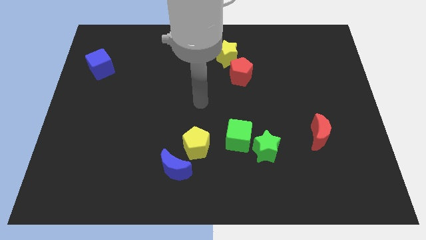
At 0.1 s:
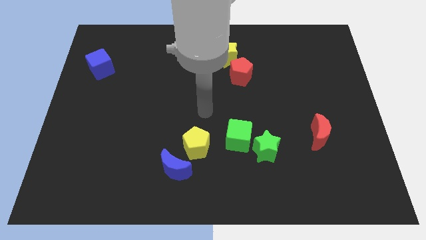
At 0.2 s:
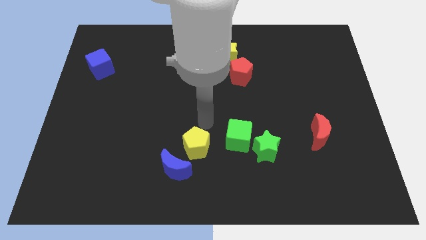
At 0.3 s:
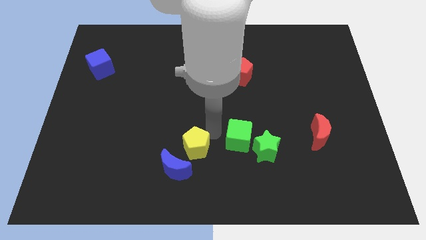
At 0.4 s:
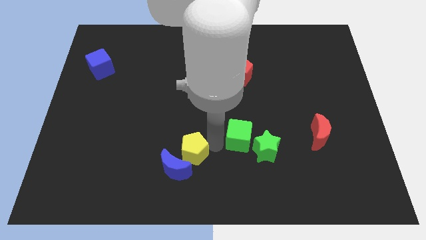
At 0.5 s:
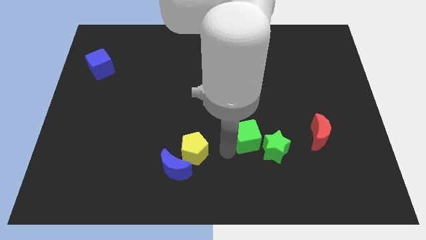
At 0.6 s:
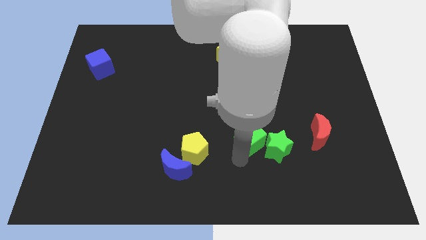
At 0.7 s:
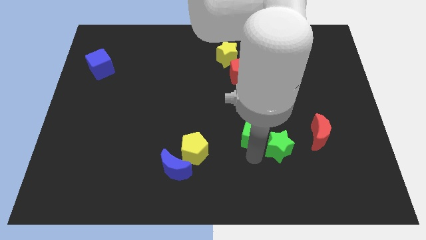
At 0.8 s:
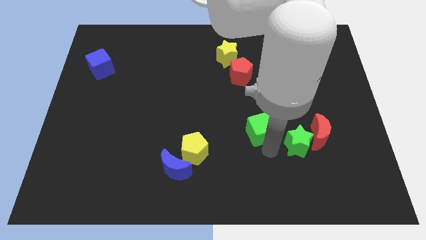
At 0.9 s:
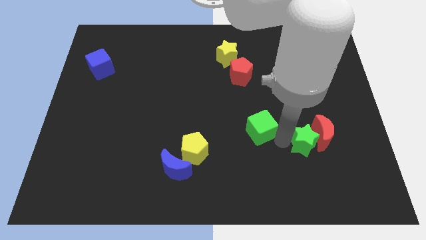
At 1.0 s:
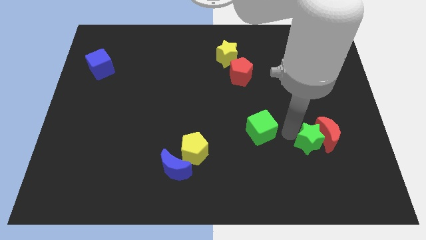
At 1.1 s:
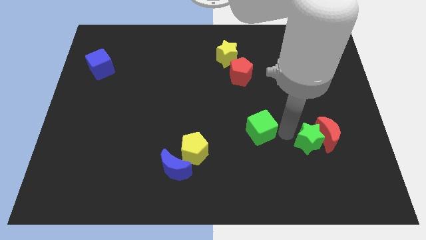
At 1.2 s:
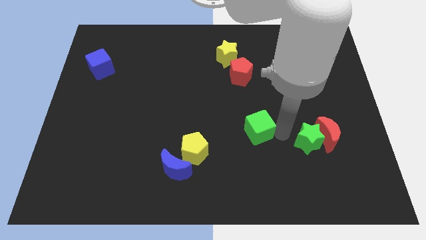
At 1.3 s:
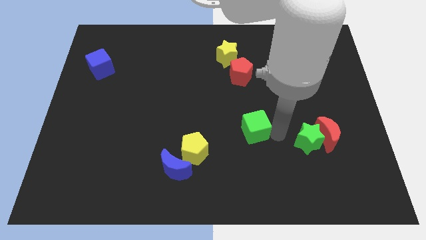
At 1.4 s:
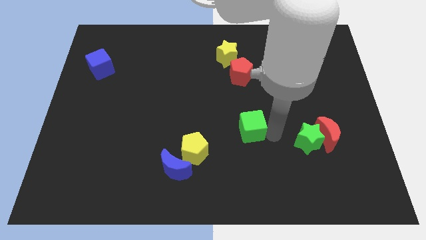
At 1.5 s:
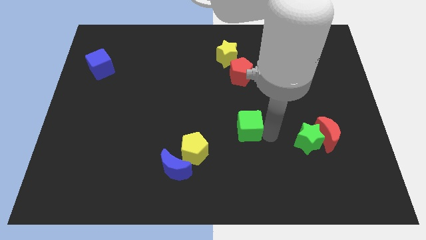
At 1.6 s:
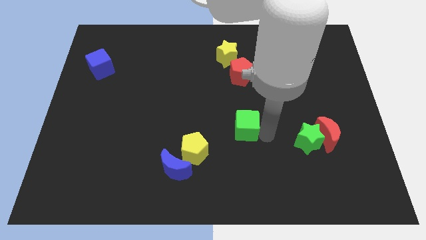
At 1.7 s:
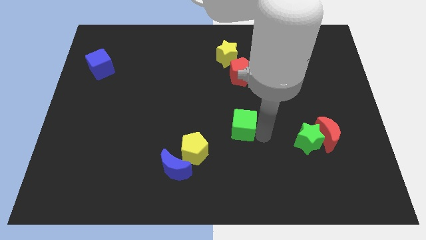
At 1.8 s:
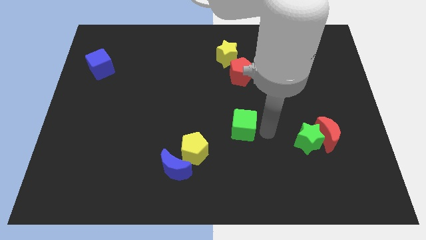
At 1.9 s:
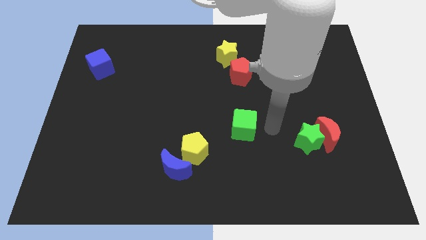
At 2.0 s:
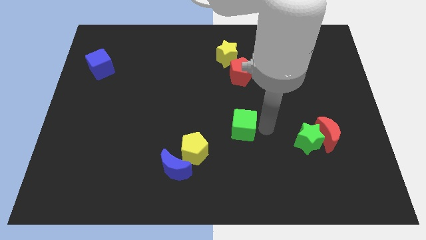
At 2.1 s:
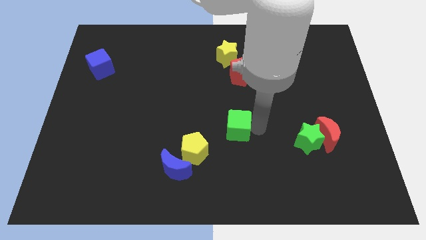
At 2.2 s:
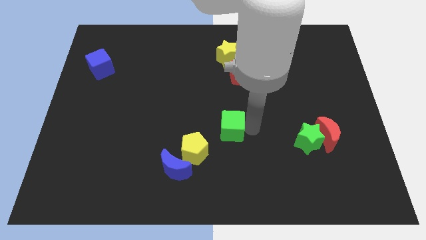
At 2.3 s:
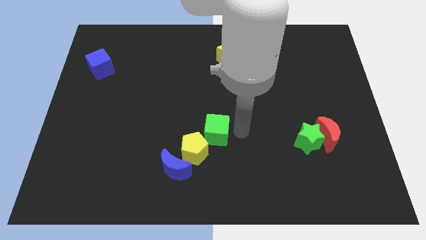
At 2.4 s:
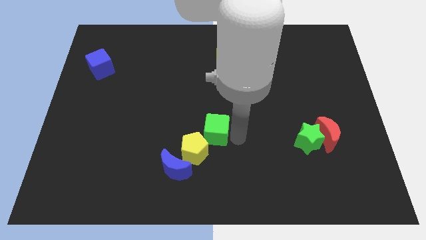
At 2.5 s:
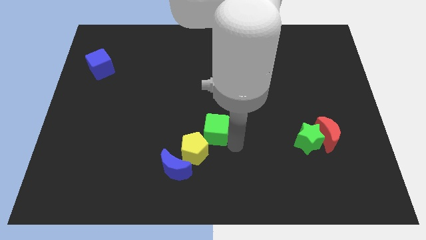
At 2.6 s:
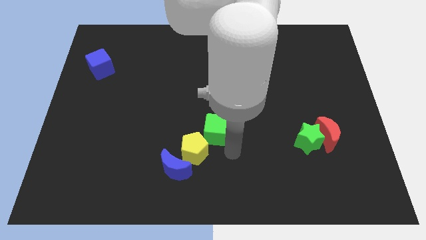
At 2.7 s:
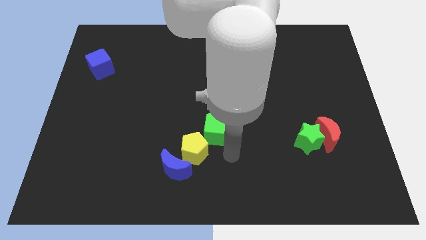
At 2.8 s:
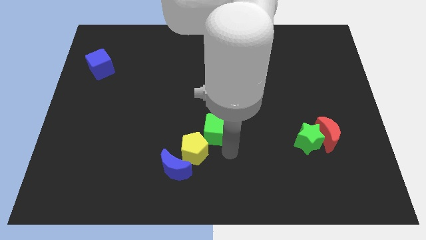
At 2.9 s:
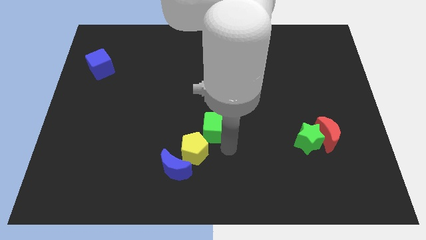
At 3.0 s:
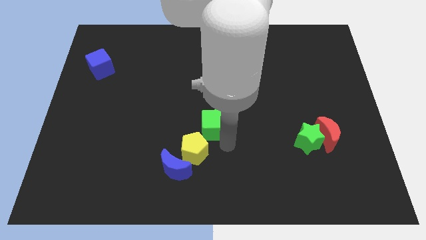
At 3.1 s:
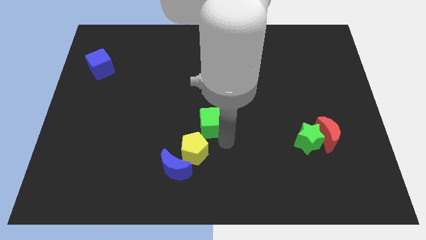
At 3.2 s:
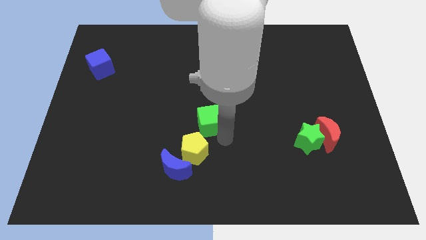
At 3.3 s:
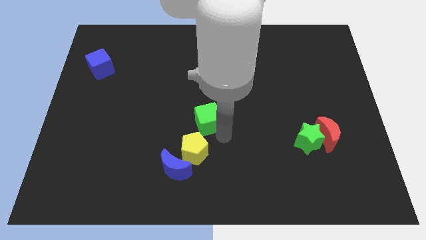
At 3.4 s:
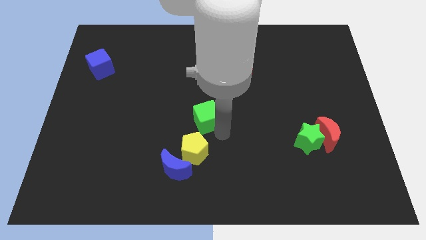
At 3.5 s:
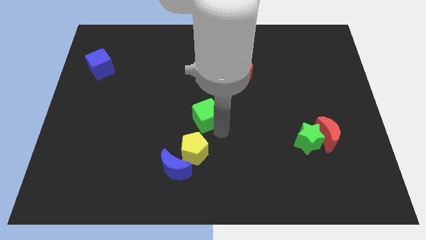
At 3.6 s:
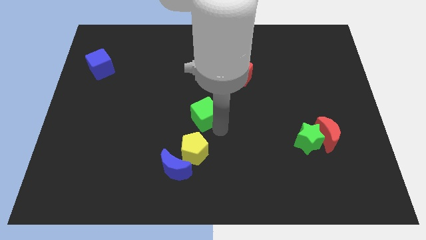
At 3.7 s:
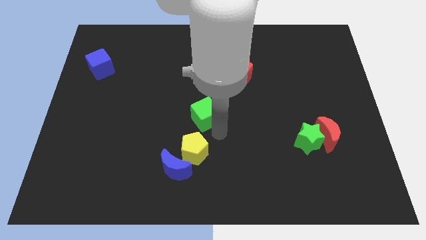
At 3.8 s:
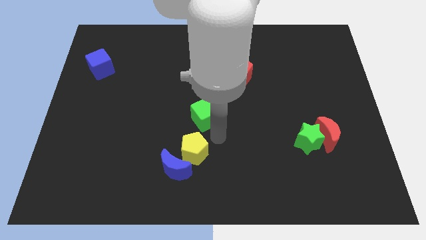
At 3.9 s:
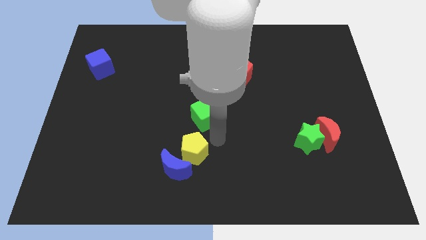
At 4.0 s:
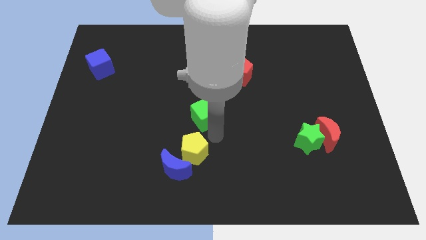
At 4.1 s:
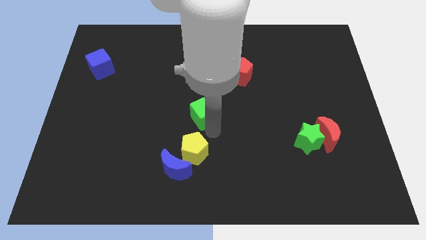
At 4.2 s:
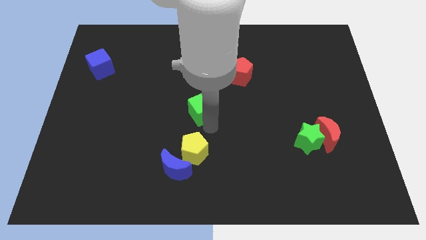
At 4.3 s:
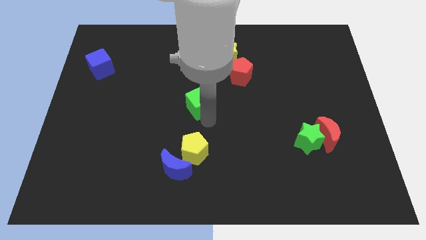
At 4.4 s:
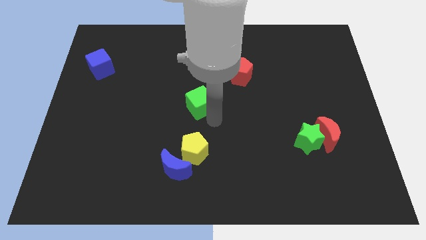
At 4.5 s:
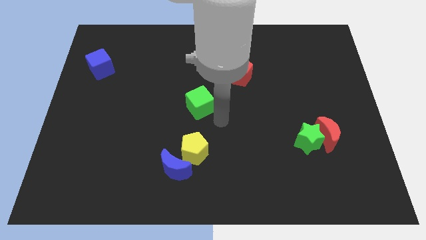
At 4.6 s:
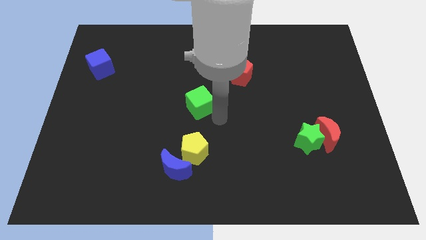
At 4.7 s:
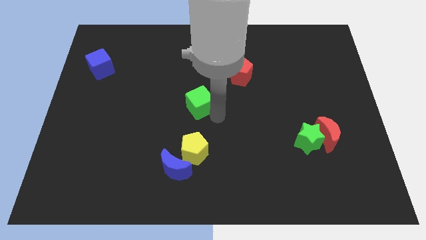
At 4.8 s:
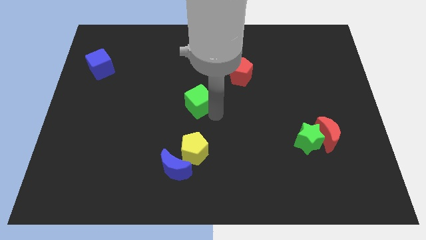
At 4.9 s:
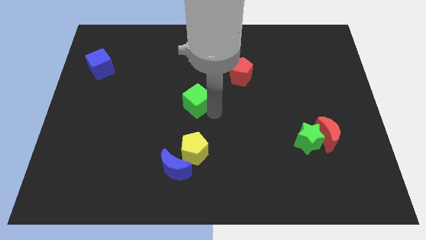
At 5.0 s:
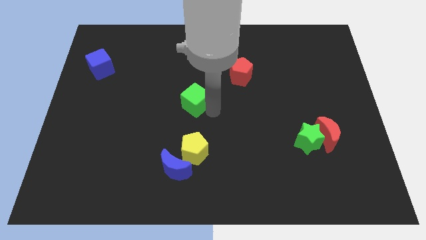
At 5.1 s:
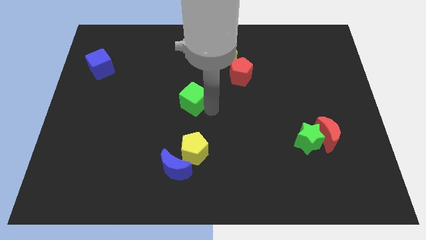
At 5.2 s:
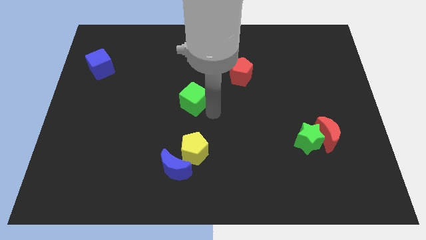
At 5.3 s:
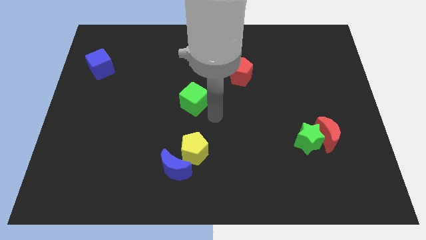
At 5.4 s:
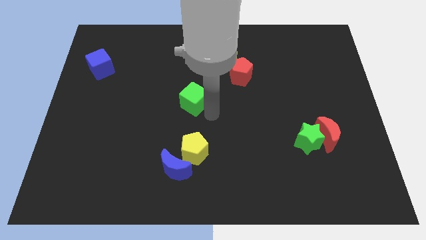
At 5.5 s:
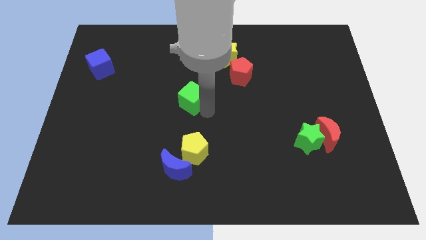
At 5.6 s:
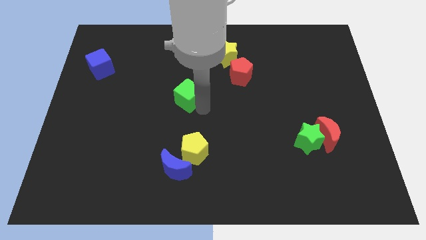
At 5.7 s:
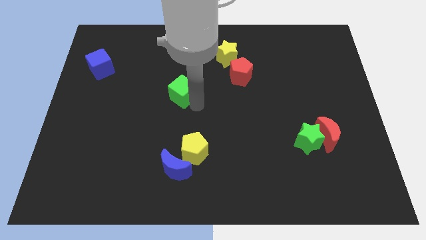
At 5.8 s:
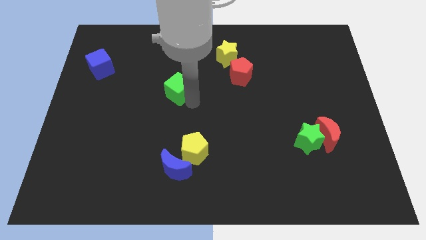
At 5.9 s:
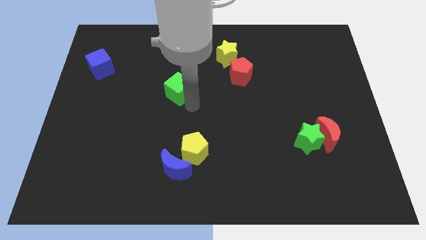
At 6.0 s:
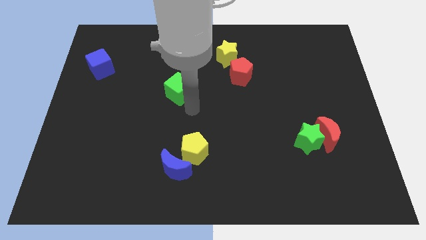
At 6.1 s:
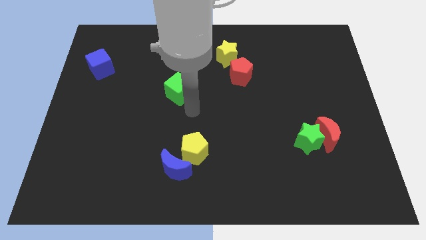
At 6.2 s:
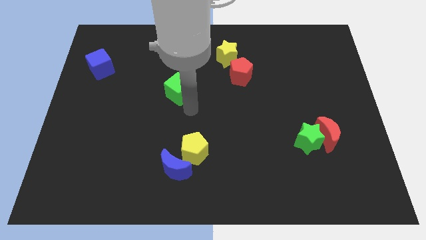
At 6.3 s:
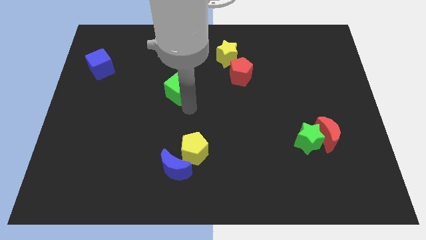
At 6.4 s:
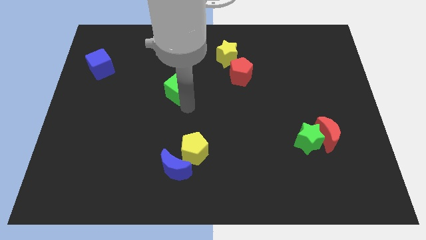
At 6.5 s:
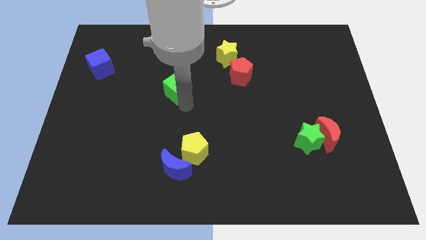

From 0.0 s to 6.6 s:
move the green cube up and left diagonally

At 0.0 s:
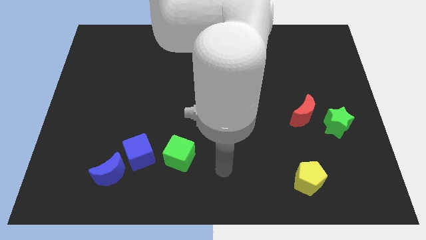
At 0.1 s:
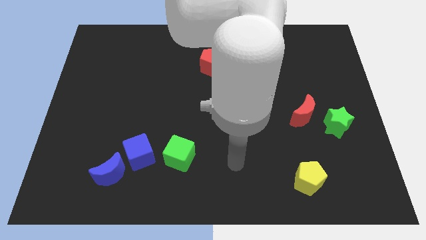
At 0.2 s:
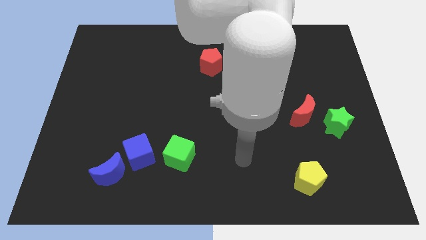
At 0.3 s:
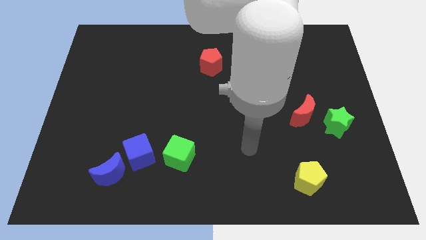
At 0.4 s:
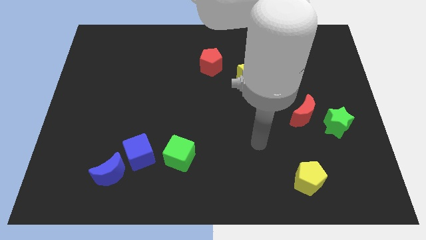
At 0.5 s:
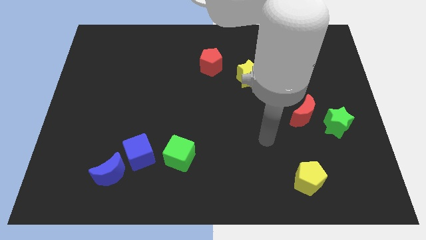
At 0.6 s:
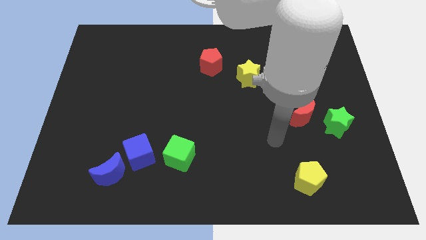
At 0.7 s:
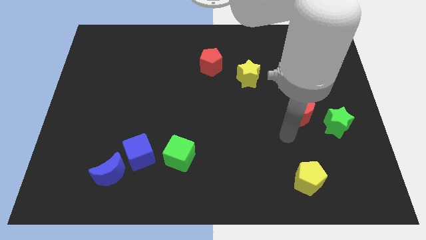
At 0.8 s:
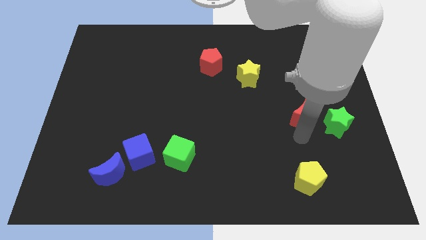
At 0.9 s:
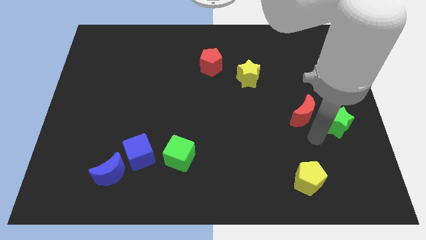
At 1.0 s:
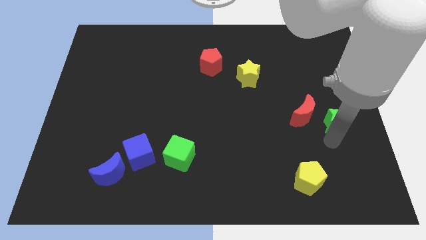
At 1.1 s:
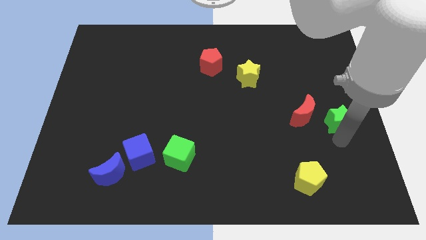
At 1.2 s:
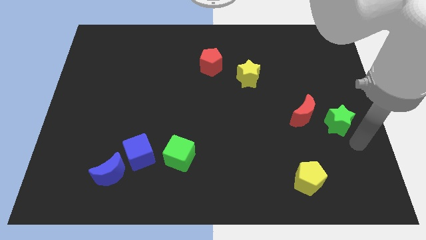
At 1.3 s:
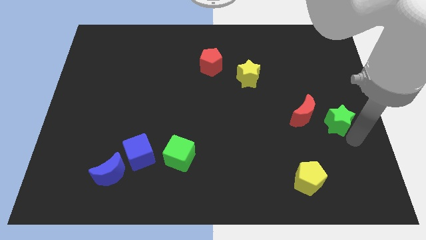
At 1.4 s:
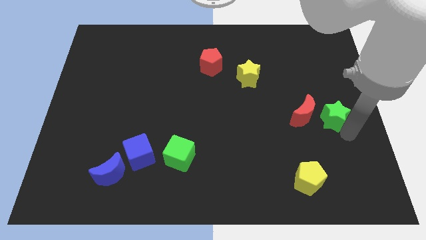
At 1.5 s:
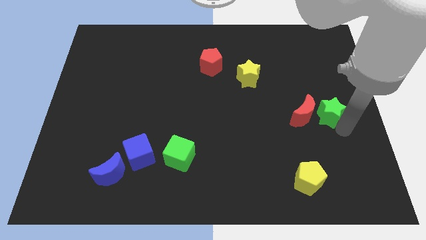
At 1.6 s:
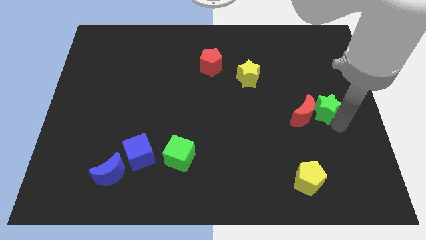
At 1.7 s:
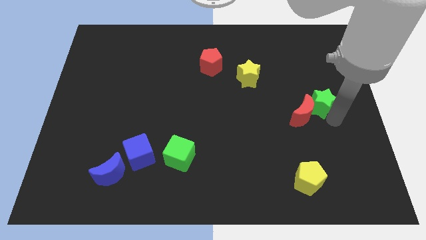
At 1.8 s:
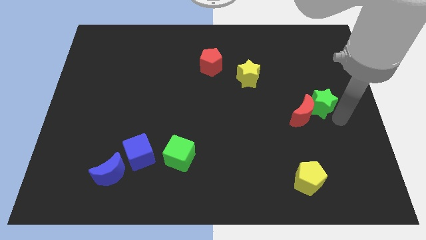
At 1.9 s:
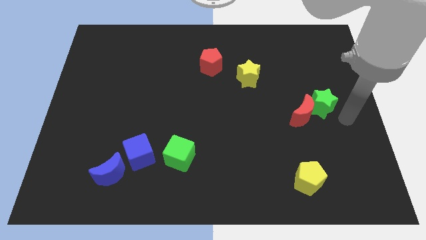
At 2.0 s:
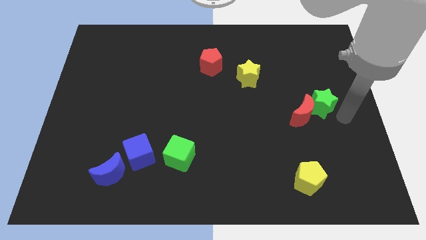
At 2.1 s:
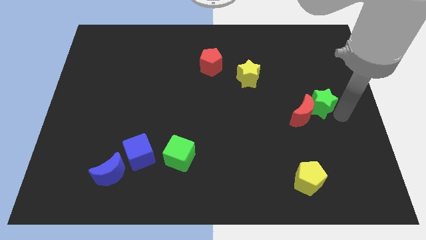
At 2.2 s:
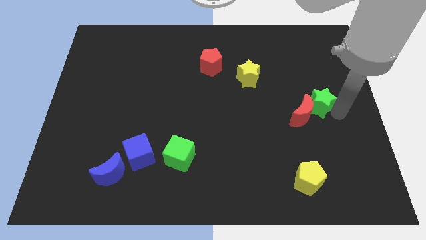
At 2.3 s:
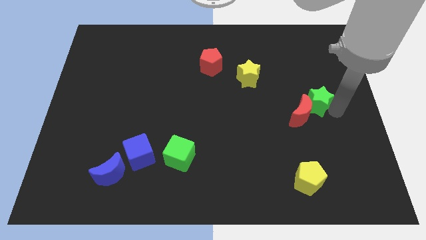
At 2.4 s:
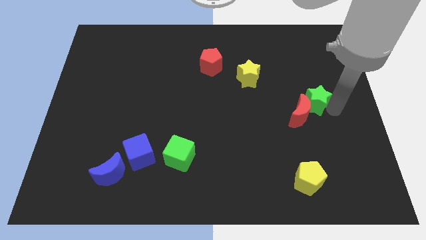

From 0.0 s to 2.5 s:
push the green star up and to the left diagonally a little
